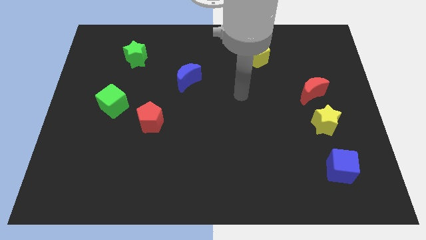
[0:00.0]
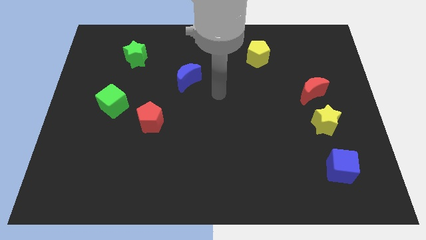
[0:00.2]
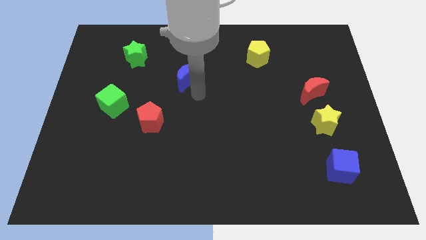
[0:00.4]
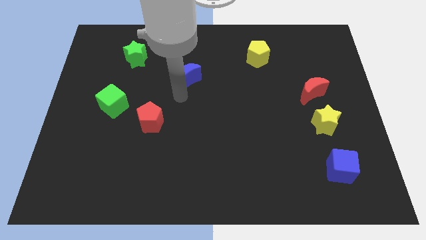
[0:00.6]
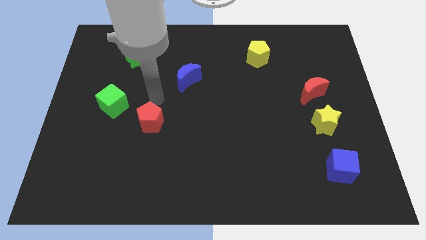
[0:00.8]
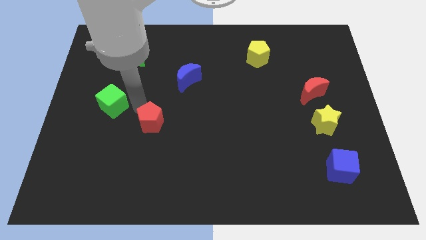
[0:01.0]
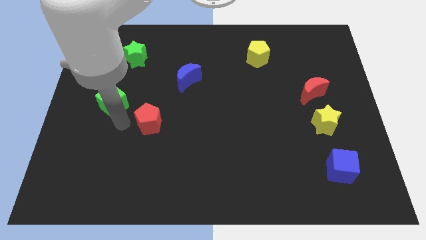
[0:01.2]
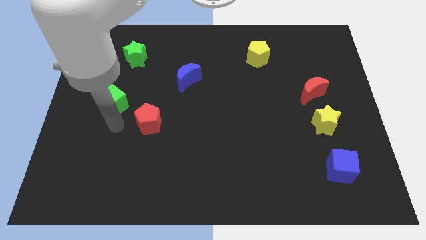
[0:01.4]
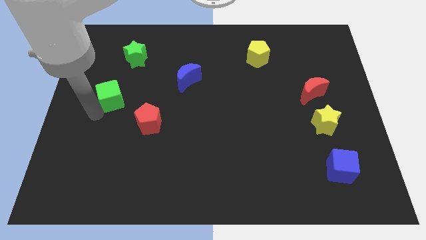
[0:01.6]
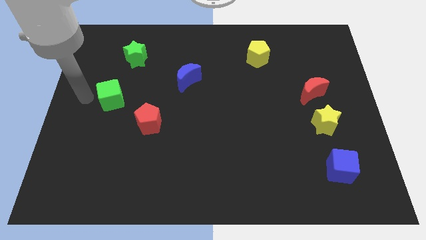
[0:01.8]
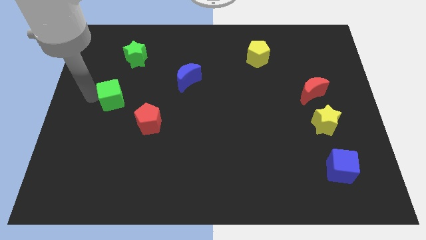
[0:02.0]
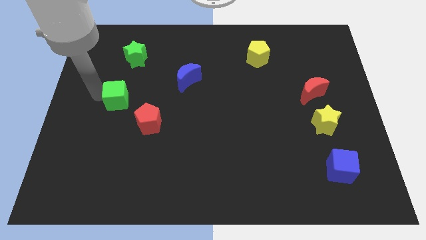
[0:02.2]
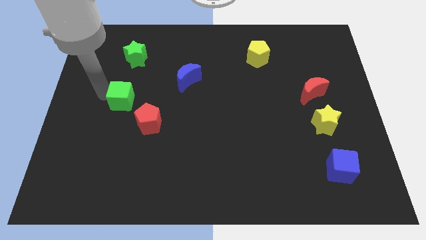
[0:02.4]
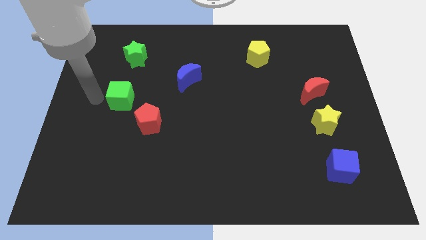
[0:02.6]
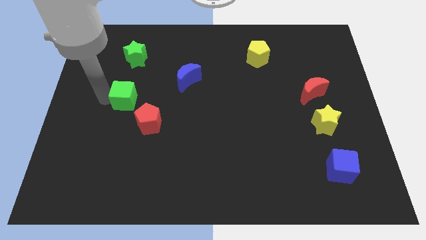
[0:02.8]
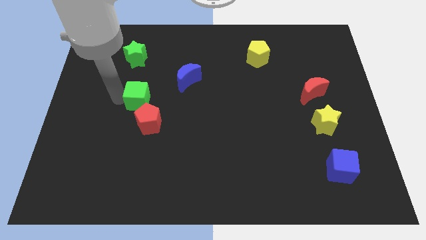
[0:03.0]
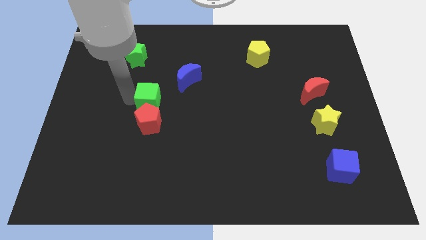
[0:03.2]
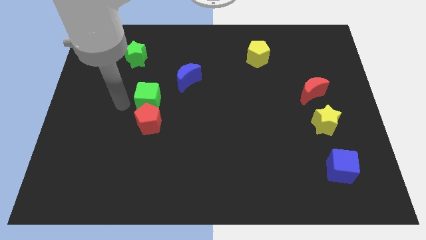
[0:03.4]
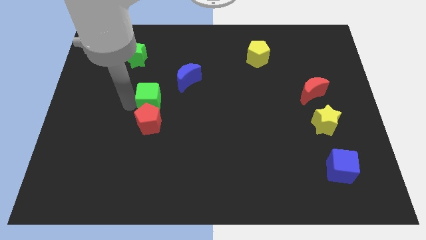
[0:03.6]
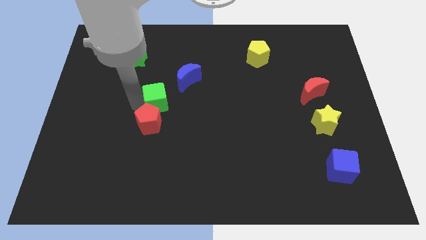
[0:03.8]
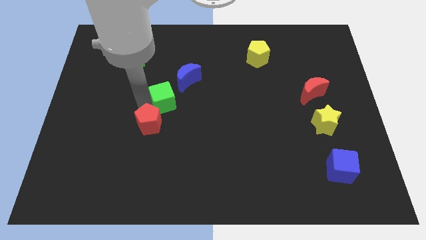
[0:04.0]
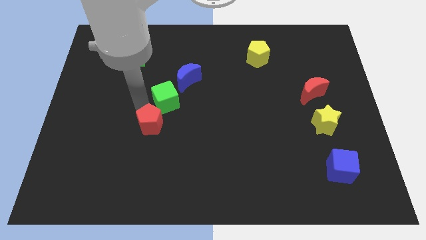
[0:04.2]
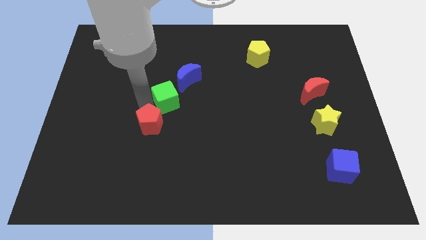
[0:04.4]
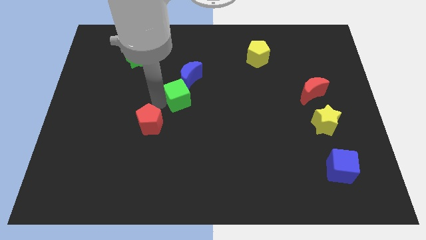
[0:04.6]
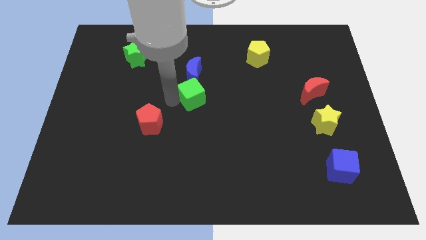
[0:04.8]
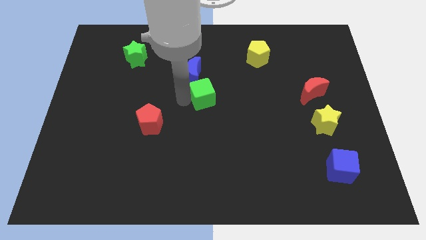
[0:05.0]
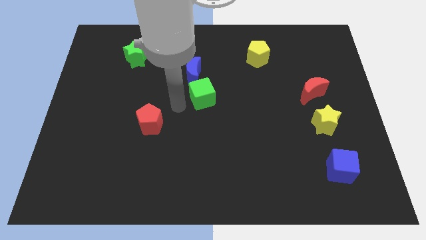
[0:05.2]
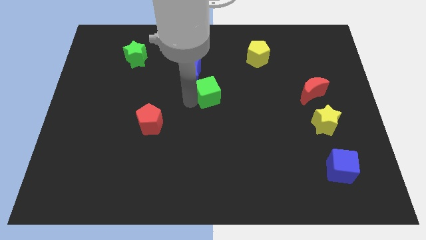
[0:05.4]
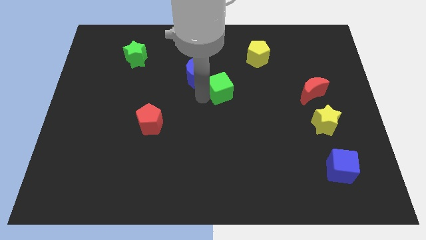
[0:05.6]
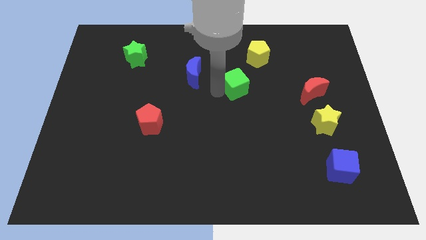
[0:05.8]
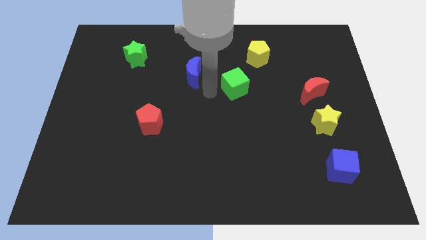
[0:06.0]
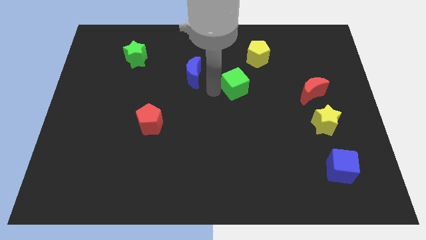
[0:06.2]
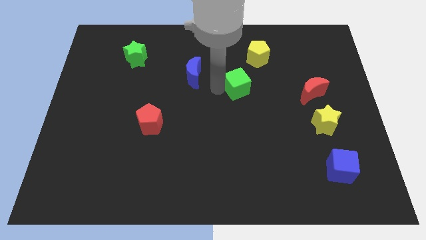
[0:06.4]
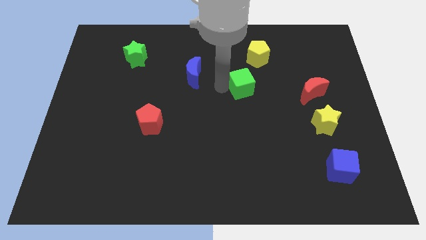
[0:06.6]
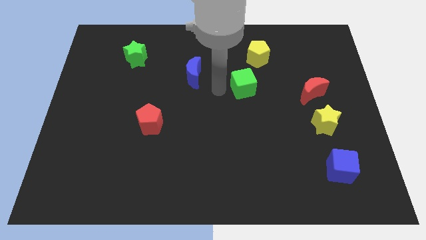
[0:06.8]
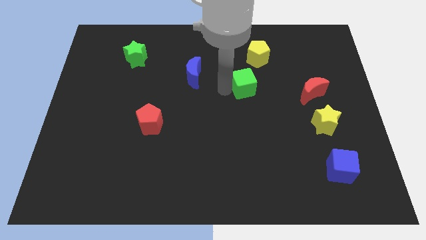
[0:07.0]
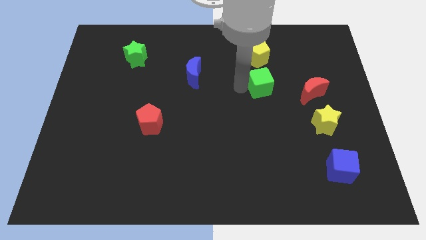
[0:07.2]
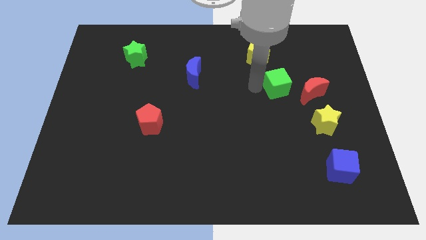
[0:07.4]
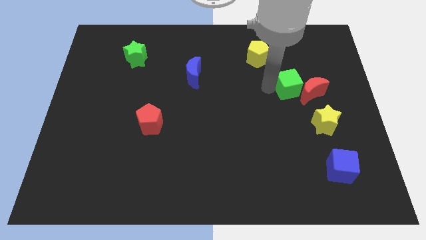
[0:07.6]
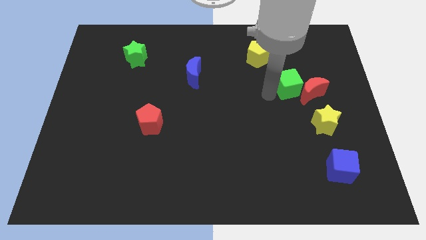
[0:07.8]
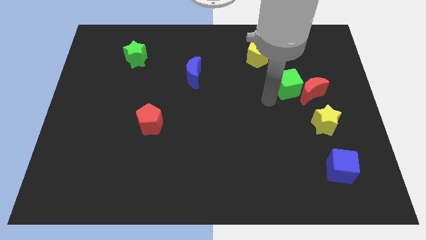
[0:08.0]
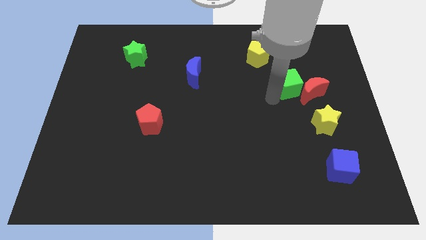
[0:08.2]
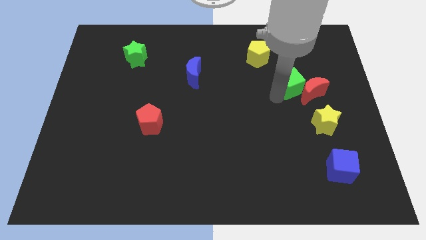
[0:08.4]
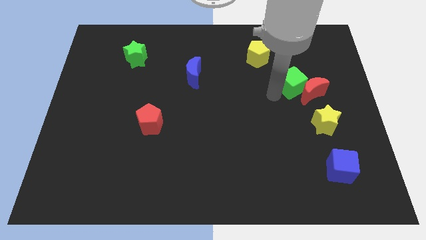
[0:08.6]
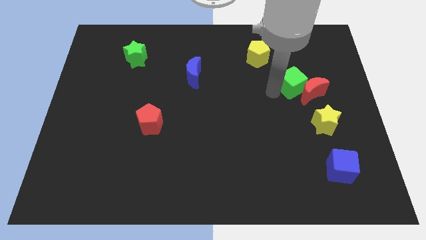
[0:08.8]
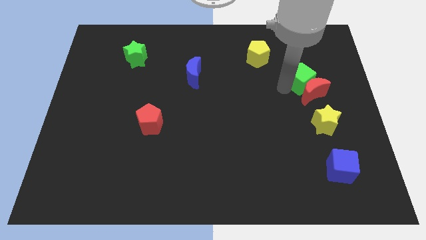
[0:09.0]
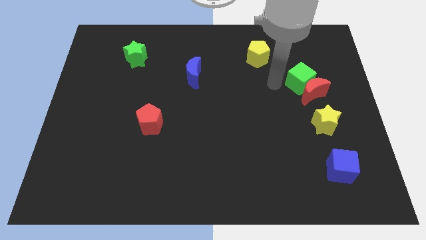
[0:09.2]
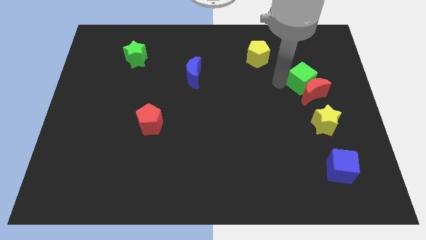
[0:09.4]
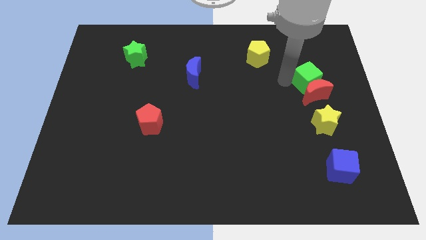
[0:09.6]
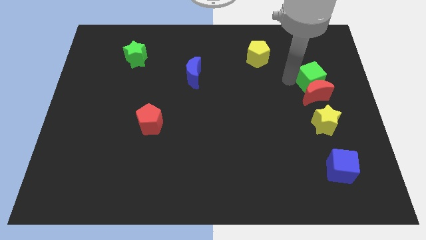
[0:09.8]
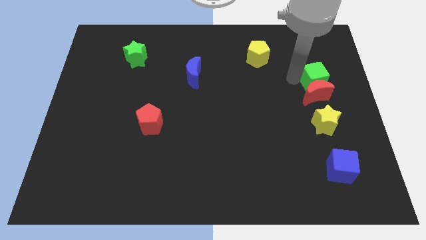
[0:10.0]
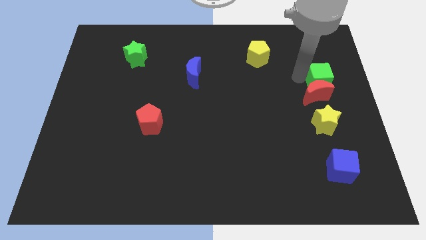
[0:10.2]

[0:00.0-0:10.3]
put the green cube to the right side of the board
